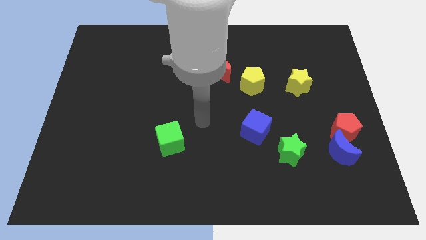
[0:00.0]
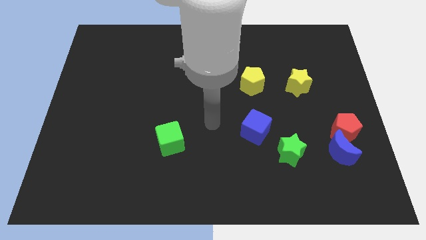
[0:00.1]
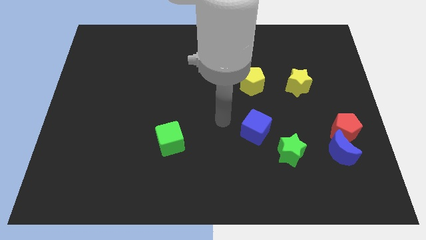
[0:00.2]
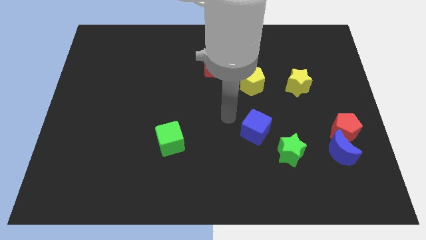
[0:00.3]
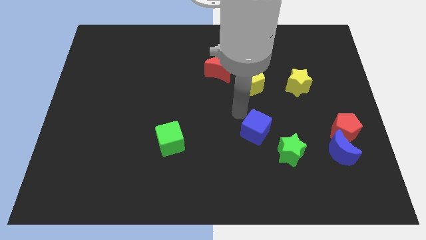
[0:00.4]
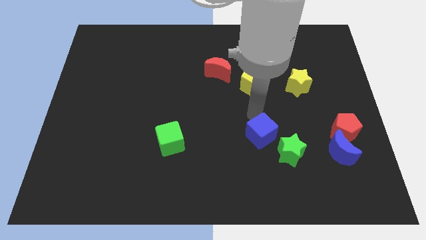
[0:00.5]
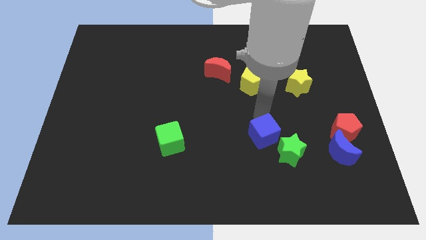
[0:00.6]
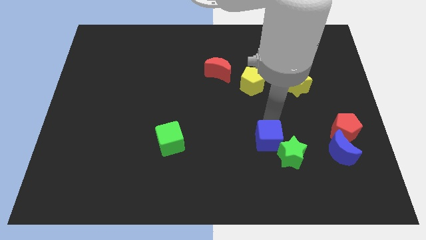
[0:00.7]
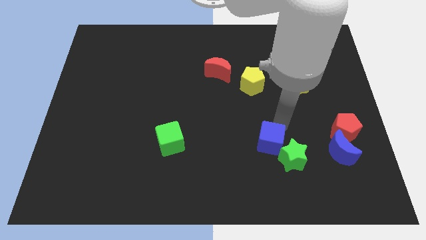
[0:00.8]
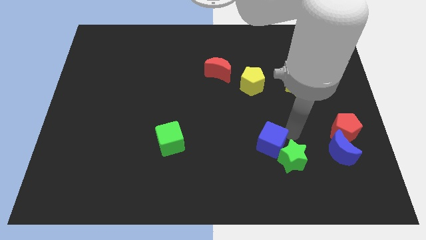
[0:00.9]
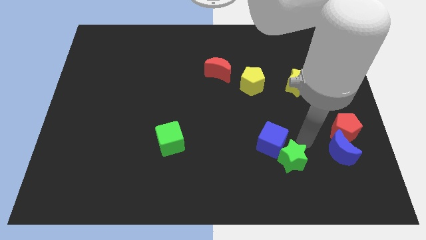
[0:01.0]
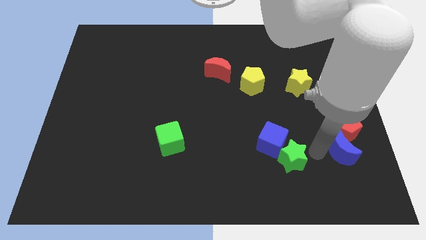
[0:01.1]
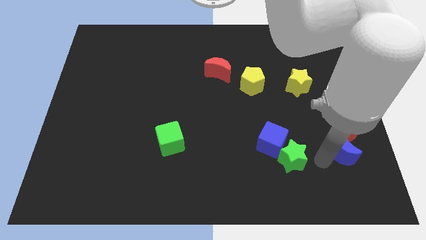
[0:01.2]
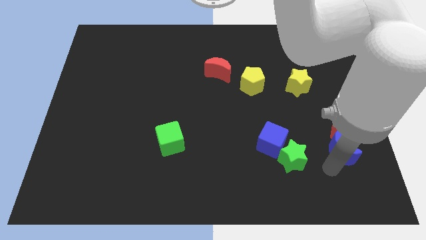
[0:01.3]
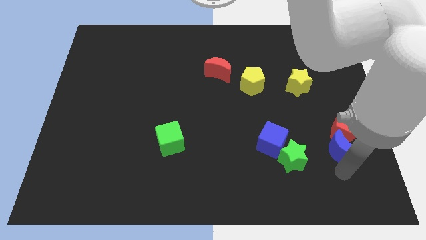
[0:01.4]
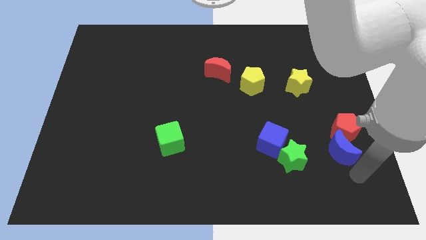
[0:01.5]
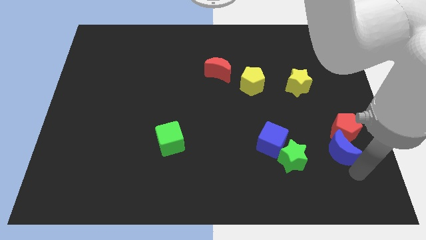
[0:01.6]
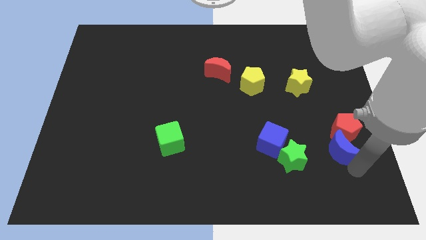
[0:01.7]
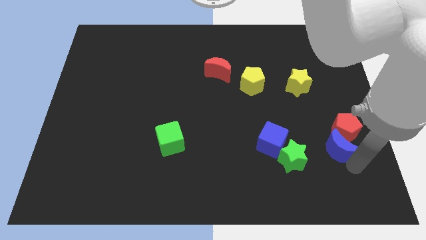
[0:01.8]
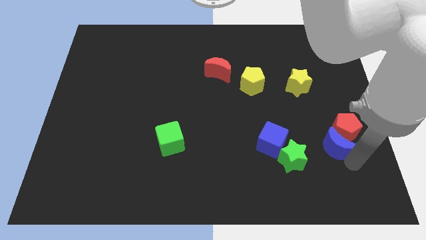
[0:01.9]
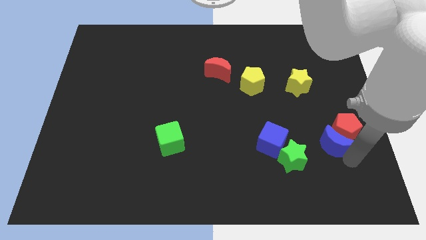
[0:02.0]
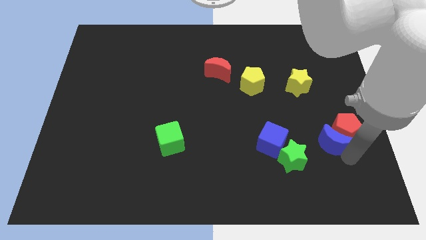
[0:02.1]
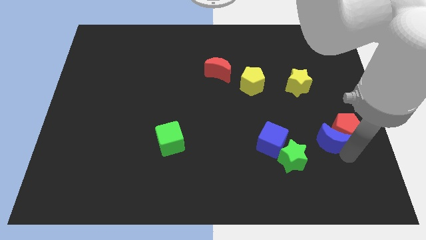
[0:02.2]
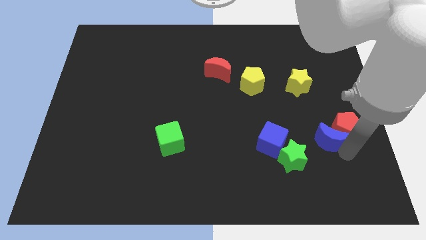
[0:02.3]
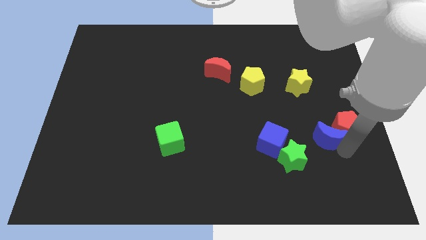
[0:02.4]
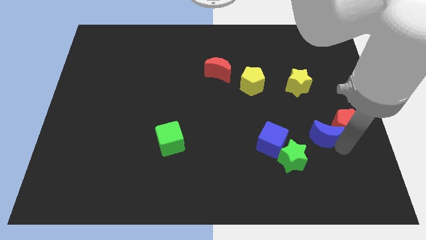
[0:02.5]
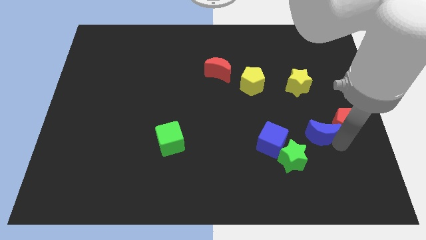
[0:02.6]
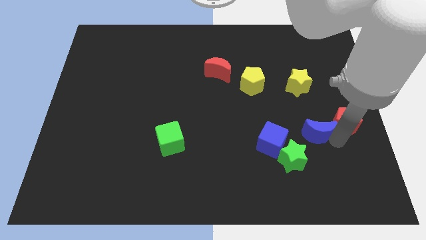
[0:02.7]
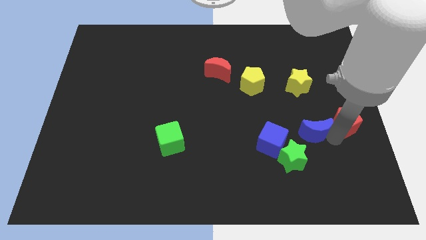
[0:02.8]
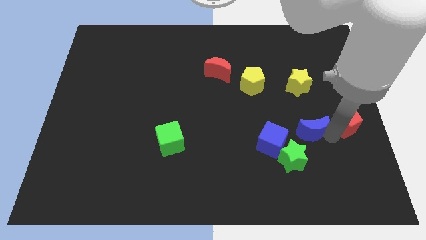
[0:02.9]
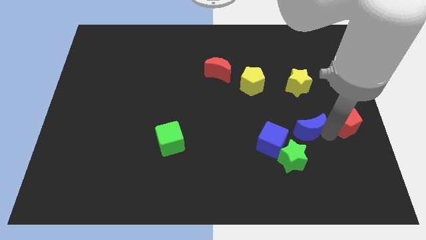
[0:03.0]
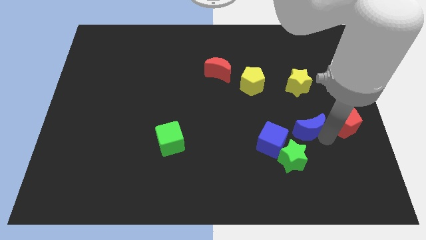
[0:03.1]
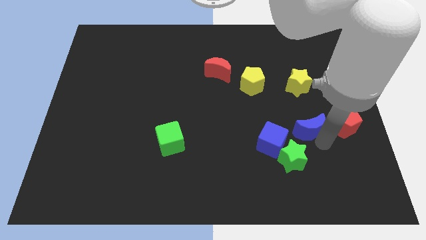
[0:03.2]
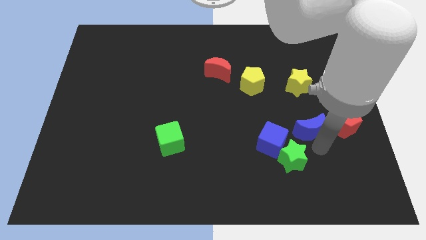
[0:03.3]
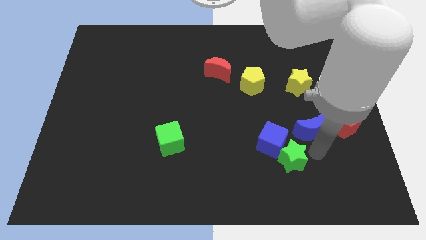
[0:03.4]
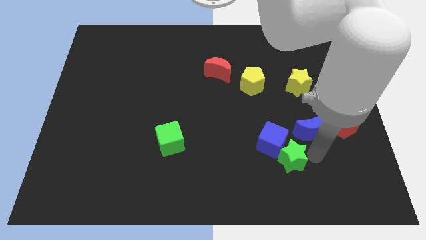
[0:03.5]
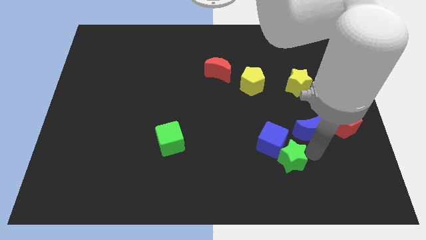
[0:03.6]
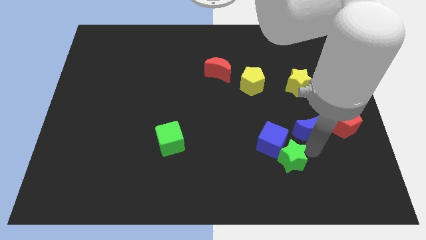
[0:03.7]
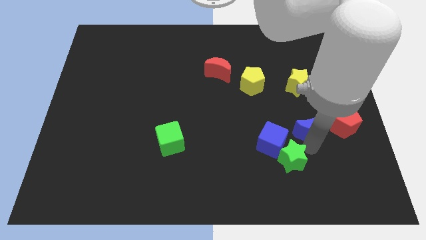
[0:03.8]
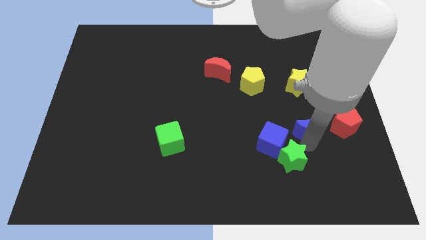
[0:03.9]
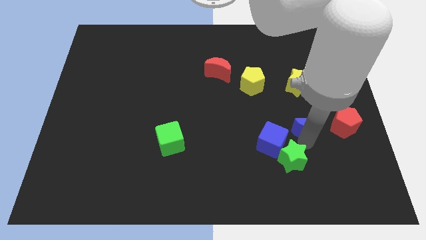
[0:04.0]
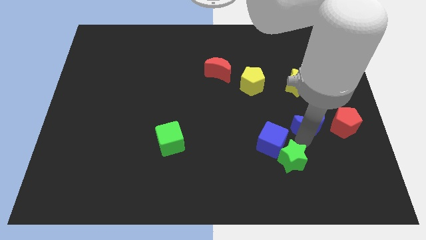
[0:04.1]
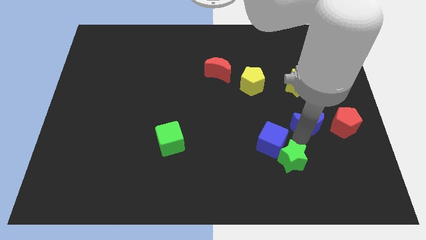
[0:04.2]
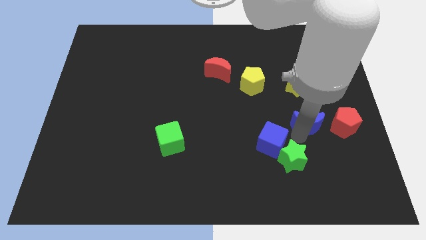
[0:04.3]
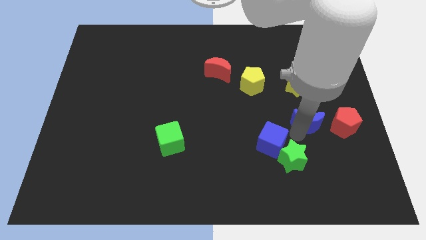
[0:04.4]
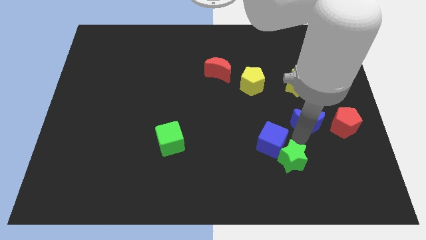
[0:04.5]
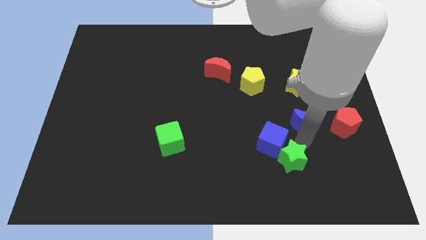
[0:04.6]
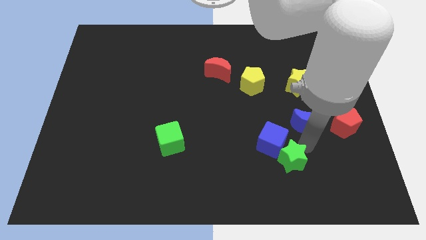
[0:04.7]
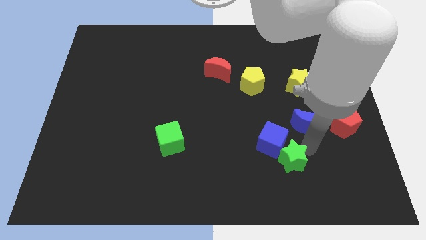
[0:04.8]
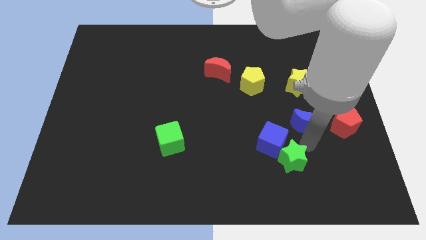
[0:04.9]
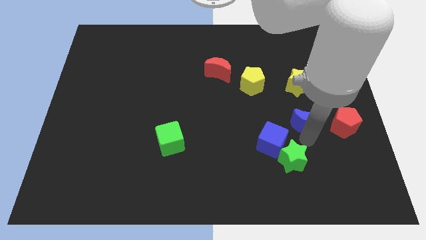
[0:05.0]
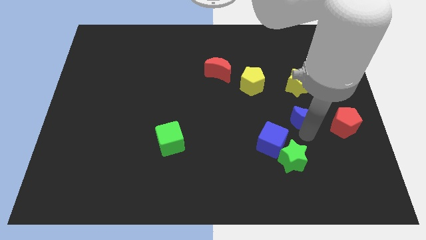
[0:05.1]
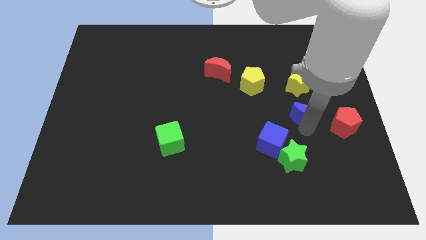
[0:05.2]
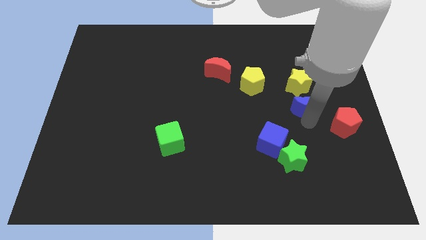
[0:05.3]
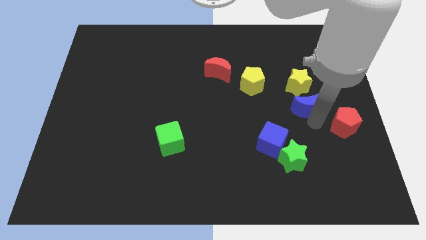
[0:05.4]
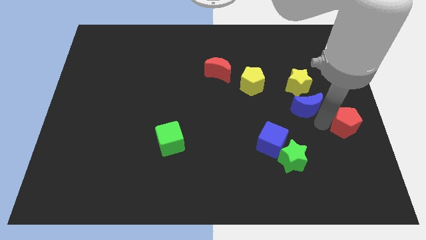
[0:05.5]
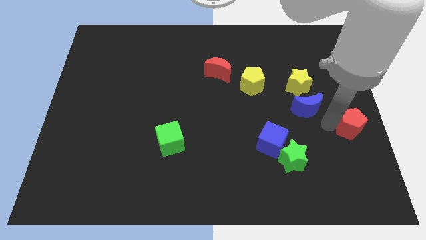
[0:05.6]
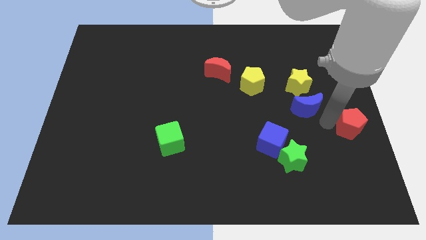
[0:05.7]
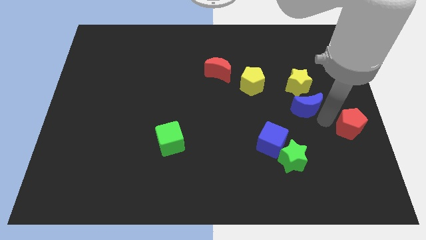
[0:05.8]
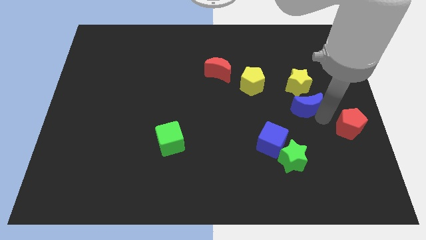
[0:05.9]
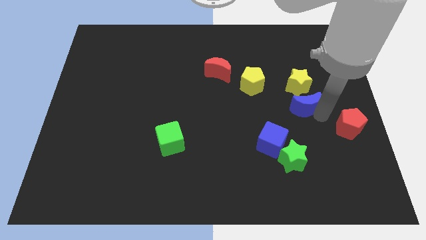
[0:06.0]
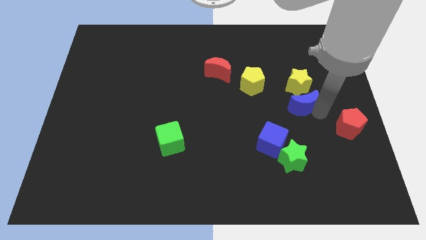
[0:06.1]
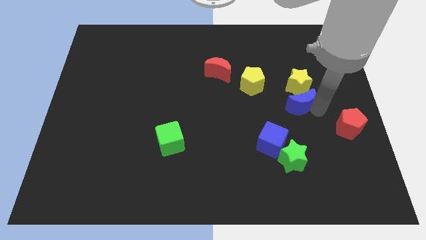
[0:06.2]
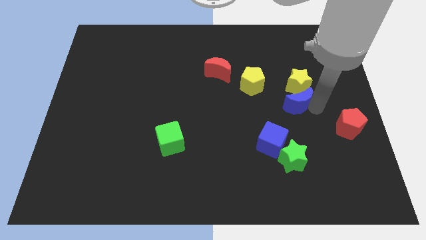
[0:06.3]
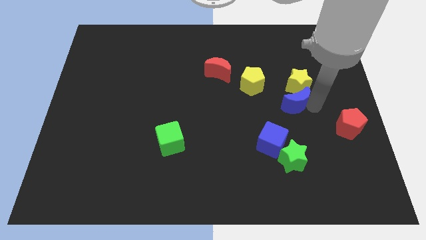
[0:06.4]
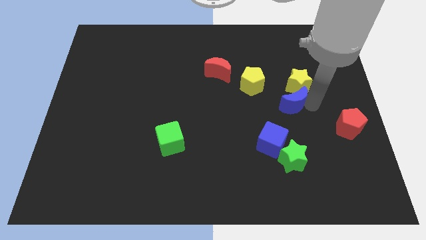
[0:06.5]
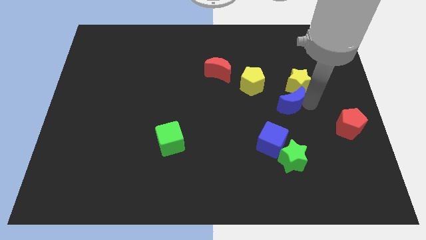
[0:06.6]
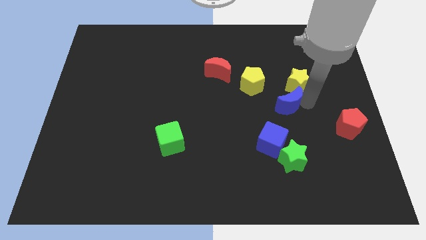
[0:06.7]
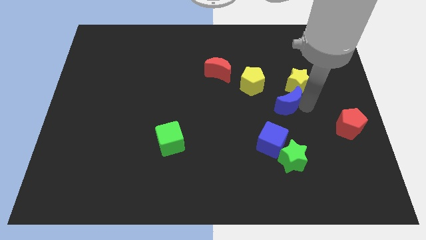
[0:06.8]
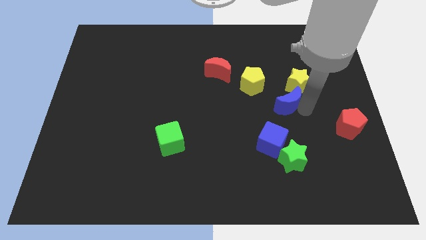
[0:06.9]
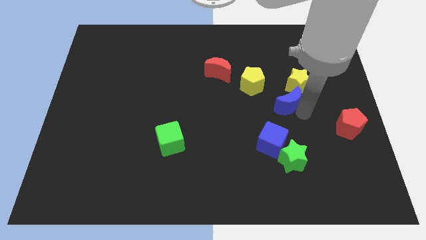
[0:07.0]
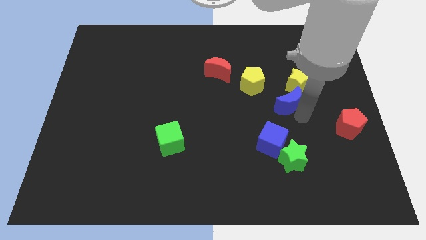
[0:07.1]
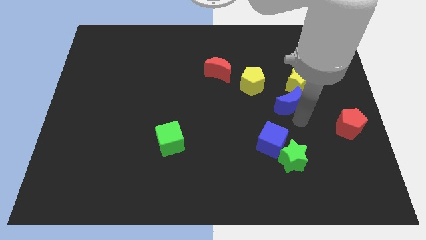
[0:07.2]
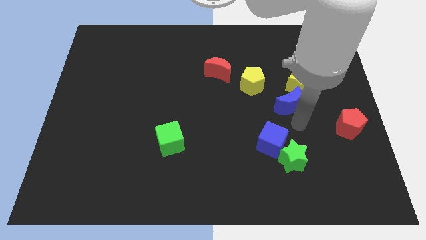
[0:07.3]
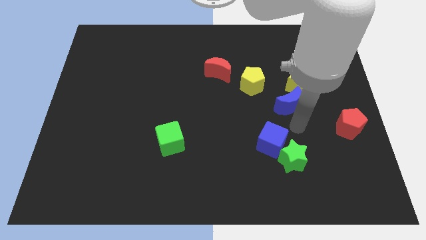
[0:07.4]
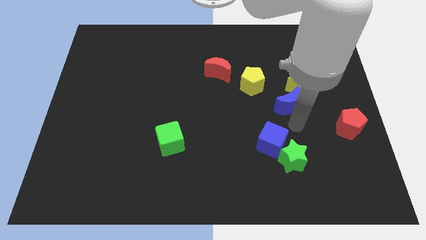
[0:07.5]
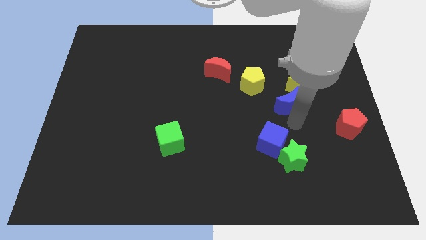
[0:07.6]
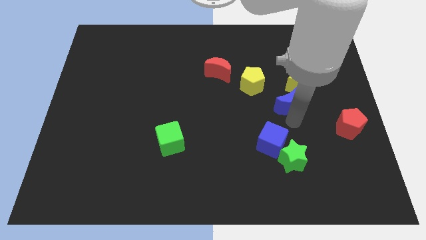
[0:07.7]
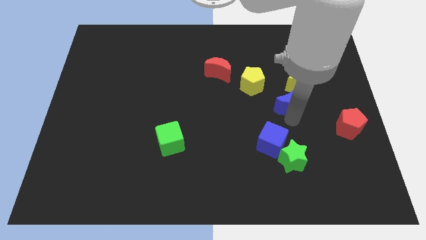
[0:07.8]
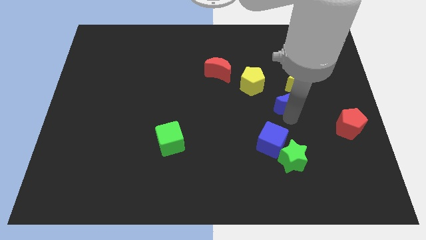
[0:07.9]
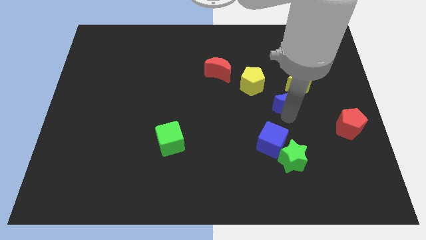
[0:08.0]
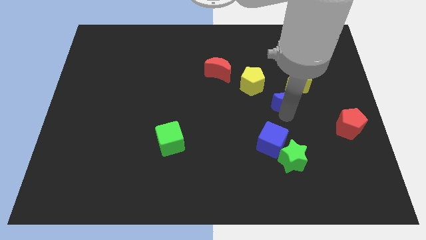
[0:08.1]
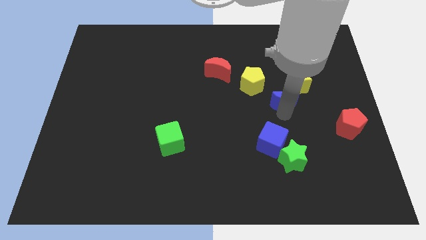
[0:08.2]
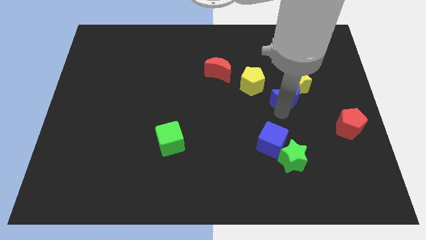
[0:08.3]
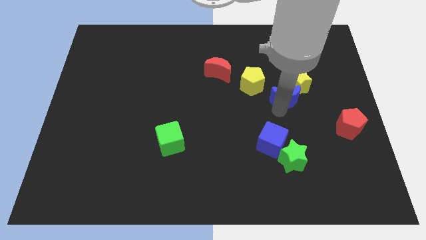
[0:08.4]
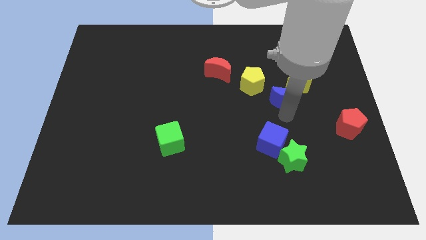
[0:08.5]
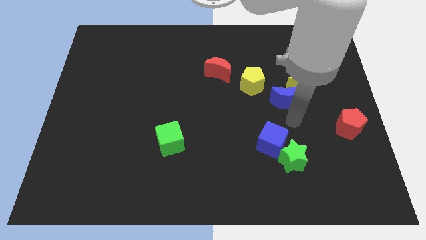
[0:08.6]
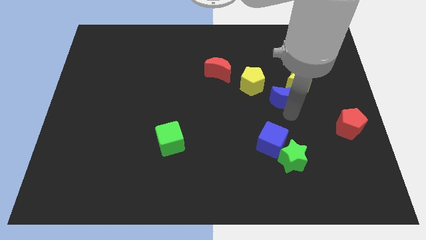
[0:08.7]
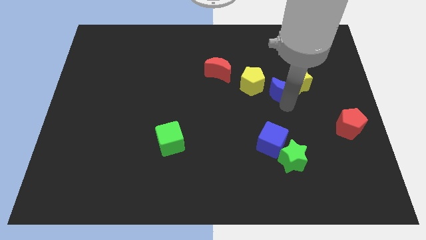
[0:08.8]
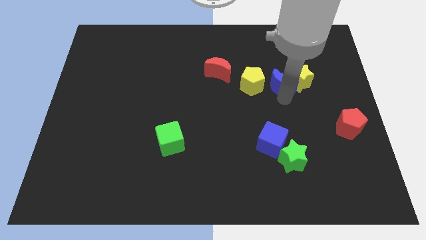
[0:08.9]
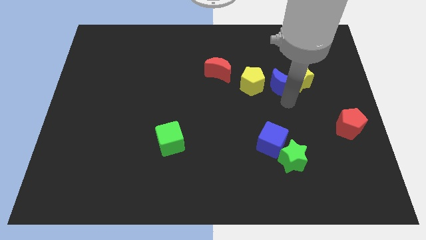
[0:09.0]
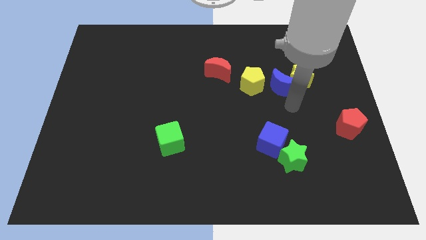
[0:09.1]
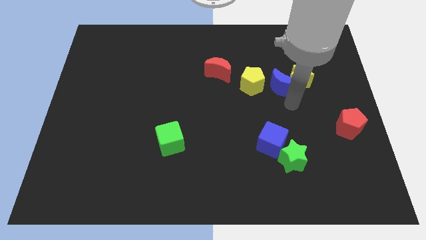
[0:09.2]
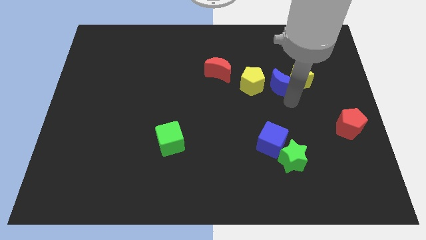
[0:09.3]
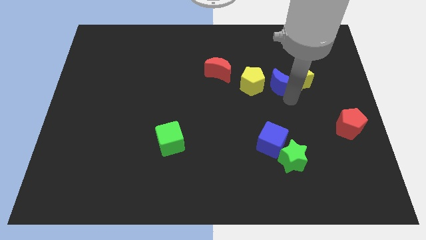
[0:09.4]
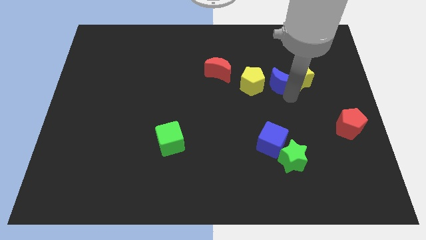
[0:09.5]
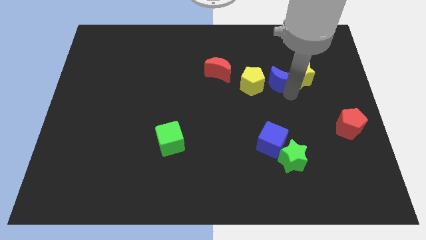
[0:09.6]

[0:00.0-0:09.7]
move the blue moon to the top right of the yellow pentagon
